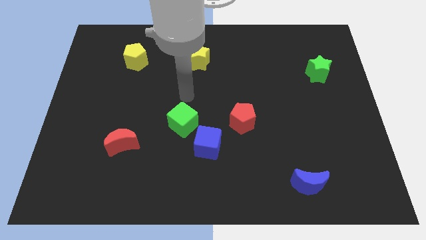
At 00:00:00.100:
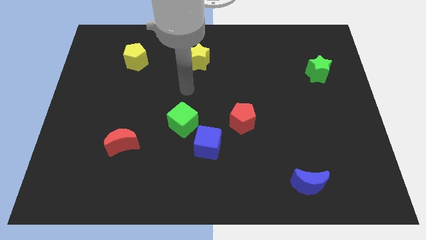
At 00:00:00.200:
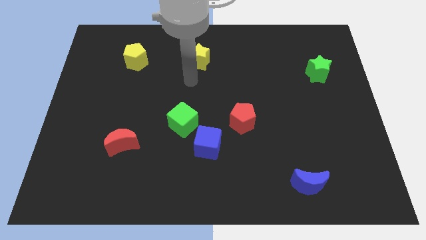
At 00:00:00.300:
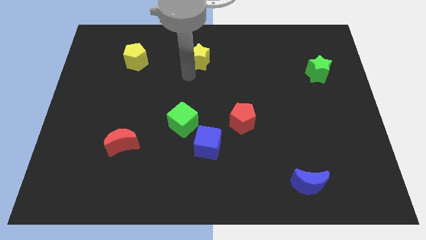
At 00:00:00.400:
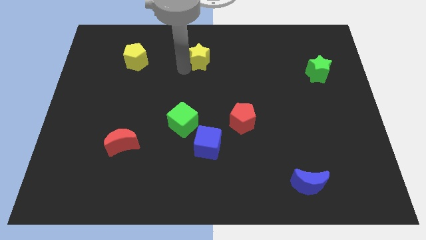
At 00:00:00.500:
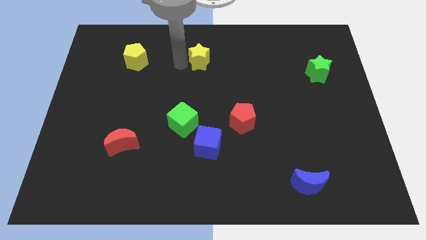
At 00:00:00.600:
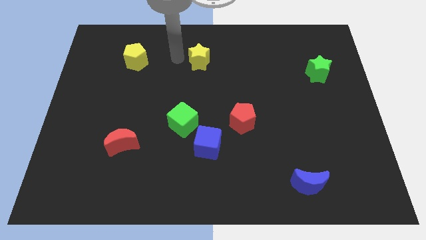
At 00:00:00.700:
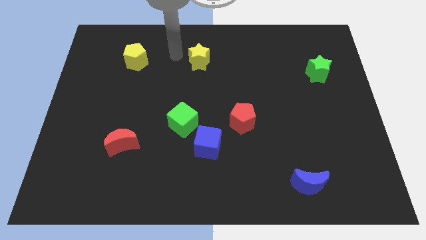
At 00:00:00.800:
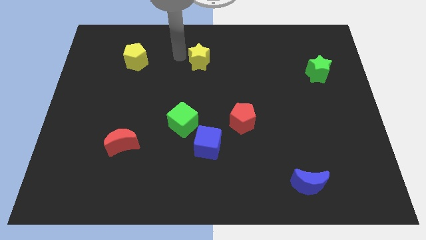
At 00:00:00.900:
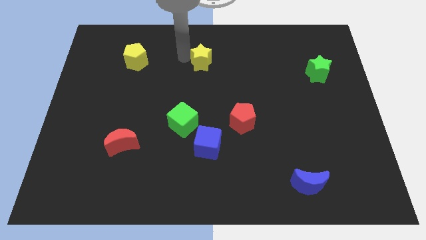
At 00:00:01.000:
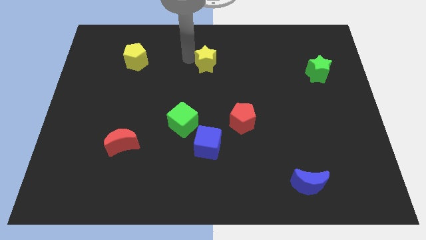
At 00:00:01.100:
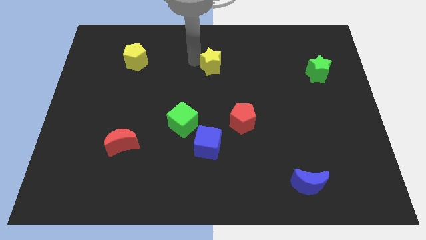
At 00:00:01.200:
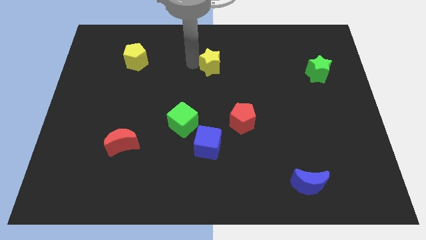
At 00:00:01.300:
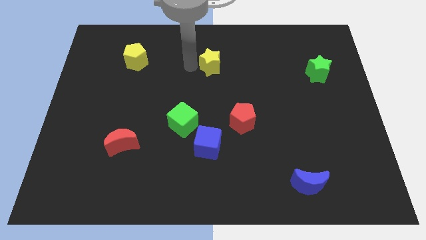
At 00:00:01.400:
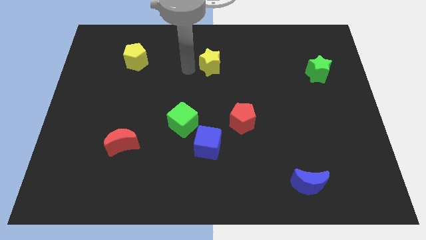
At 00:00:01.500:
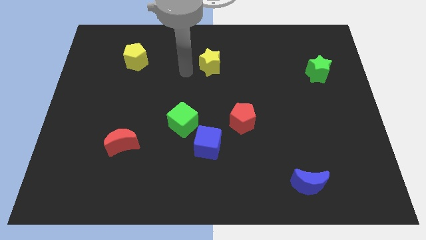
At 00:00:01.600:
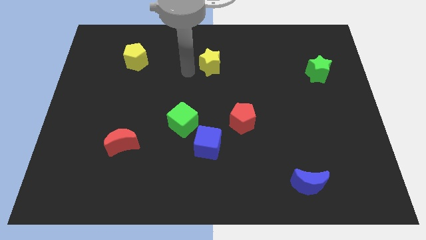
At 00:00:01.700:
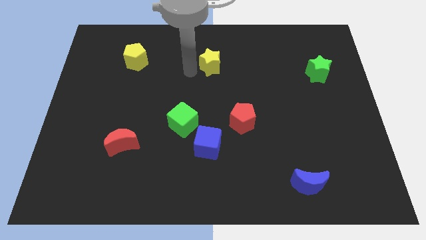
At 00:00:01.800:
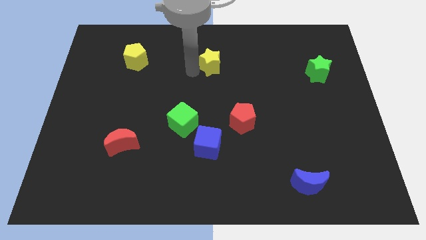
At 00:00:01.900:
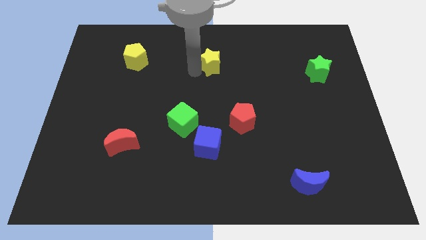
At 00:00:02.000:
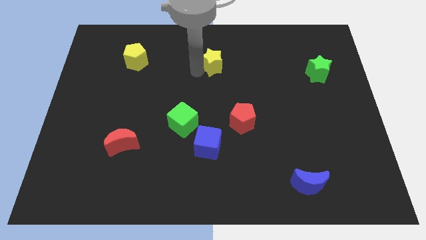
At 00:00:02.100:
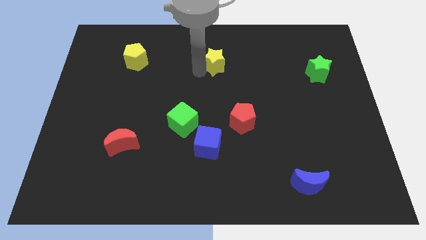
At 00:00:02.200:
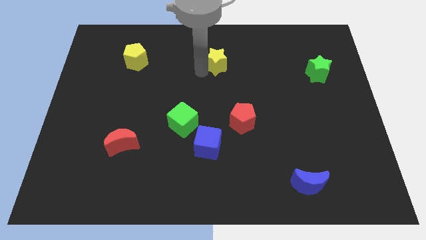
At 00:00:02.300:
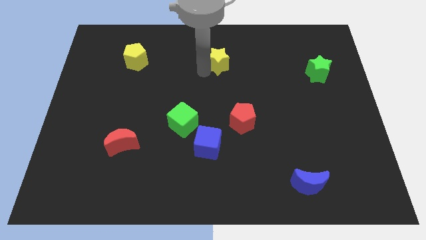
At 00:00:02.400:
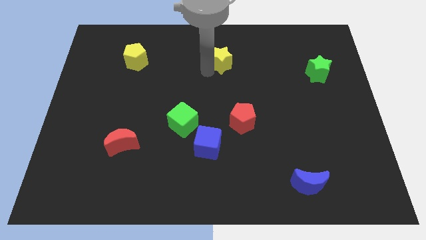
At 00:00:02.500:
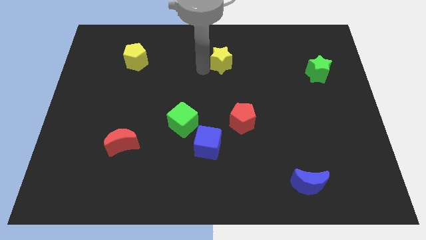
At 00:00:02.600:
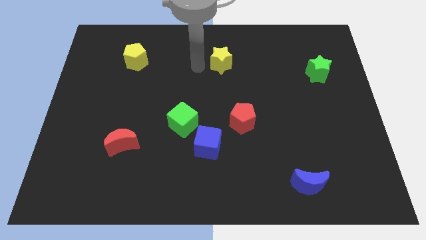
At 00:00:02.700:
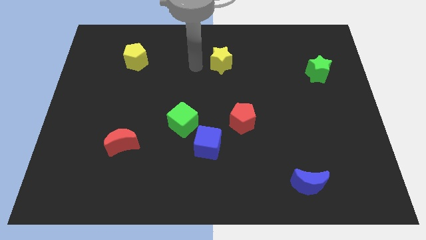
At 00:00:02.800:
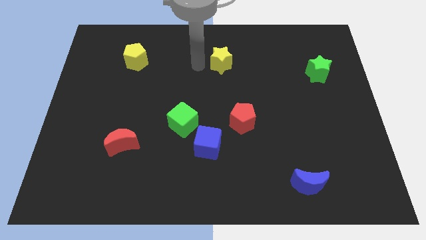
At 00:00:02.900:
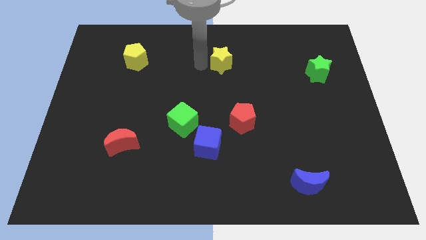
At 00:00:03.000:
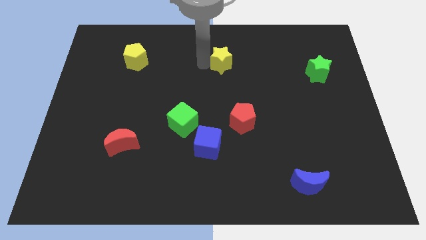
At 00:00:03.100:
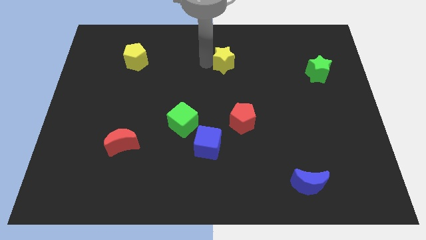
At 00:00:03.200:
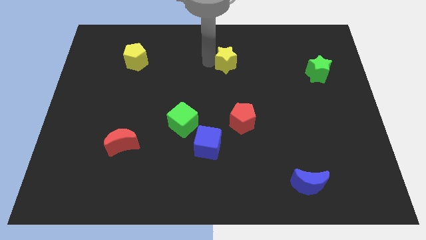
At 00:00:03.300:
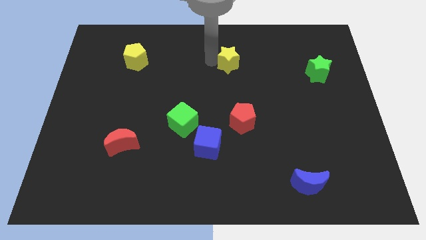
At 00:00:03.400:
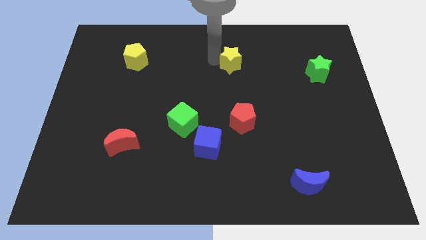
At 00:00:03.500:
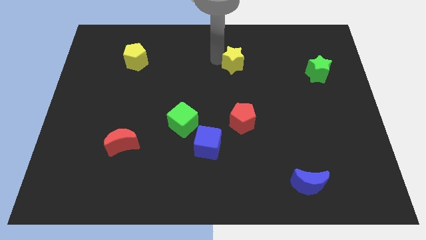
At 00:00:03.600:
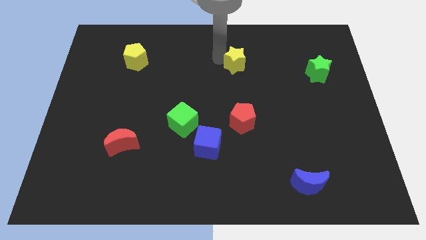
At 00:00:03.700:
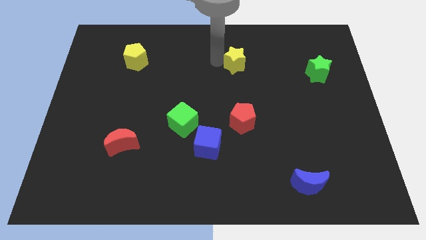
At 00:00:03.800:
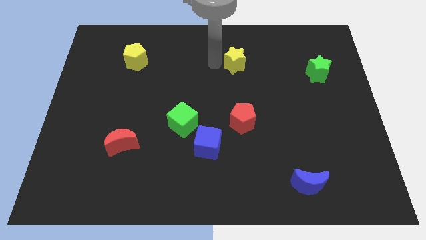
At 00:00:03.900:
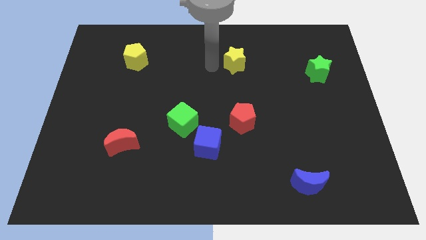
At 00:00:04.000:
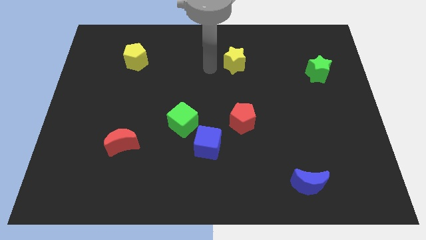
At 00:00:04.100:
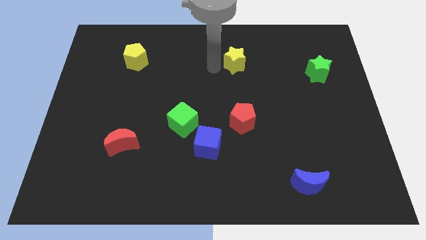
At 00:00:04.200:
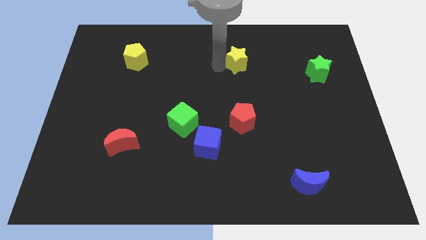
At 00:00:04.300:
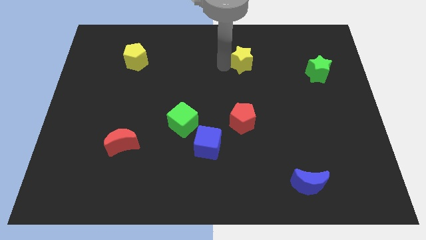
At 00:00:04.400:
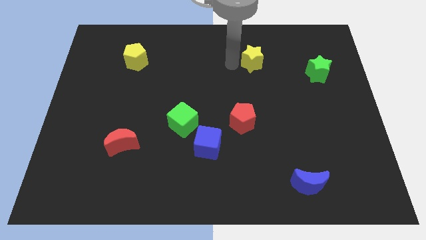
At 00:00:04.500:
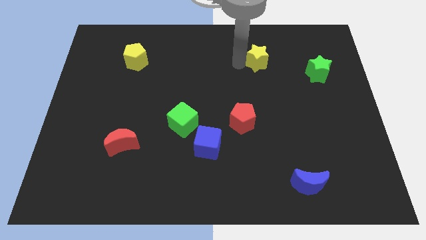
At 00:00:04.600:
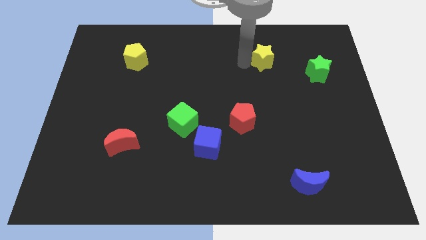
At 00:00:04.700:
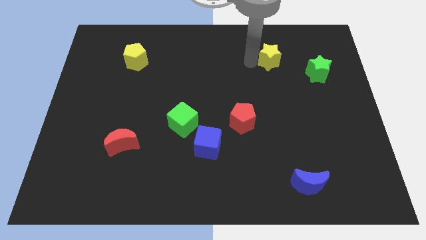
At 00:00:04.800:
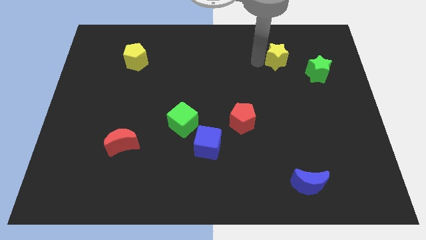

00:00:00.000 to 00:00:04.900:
move the yellow star to the right

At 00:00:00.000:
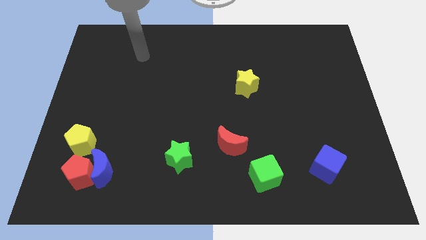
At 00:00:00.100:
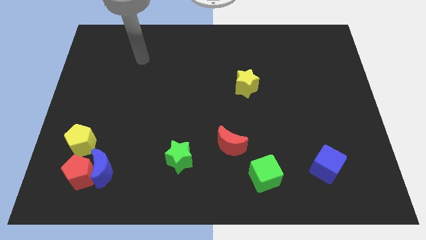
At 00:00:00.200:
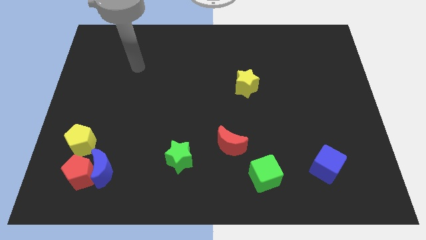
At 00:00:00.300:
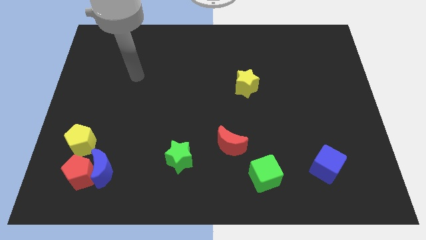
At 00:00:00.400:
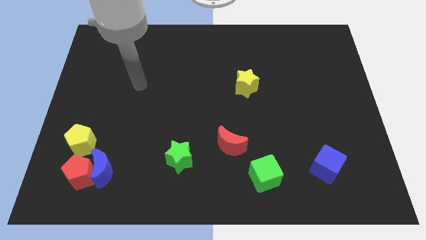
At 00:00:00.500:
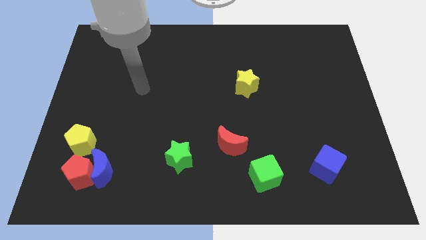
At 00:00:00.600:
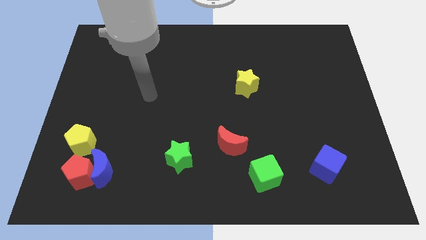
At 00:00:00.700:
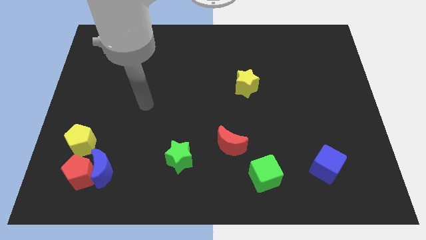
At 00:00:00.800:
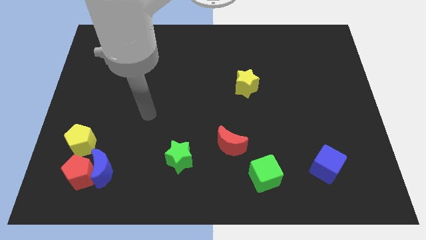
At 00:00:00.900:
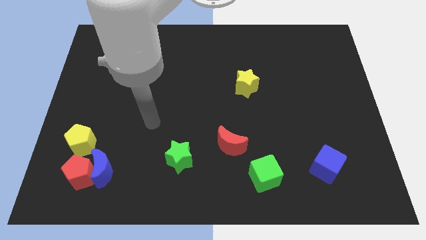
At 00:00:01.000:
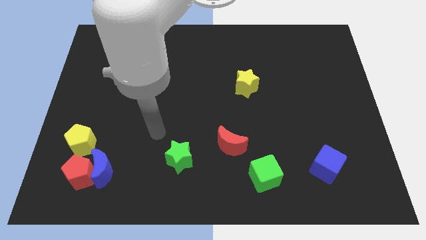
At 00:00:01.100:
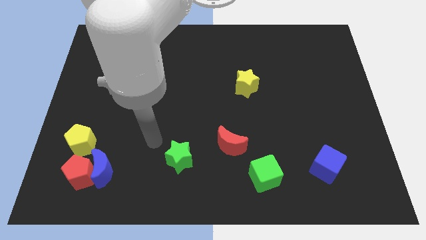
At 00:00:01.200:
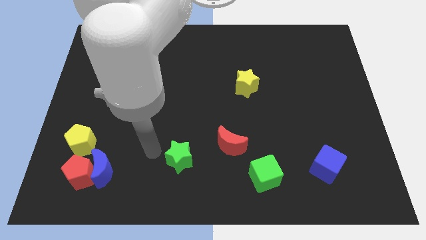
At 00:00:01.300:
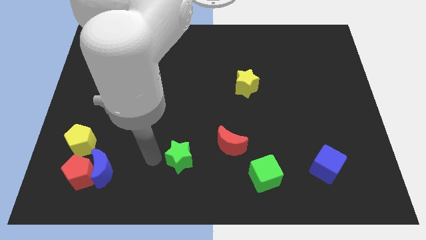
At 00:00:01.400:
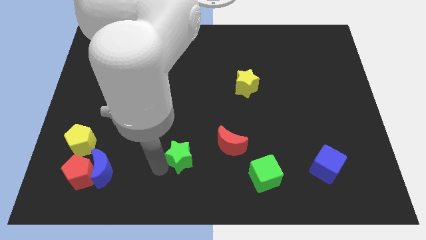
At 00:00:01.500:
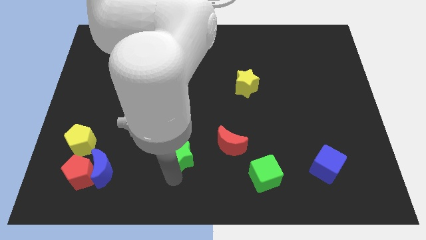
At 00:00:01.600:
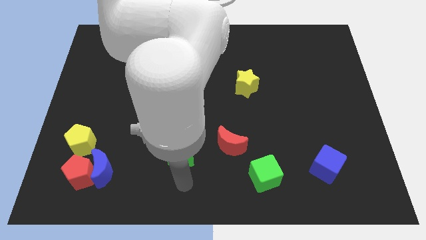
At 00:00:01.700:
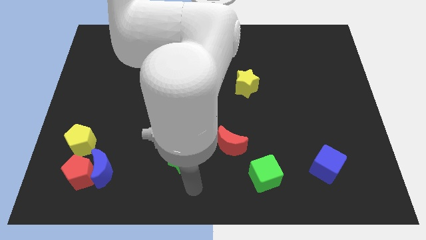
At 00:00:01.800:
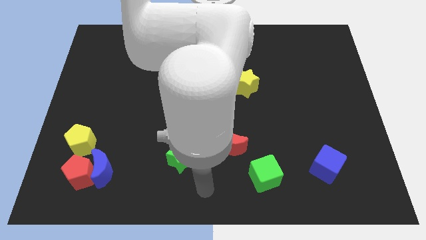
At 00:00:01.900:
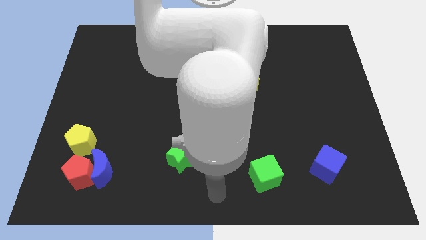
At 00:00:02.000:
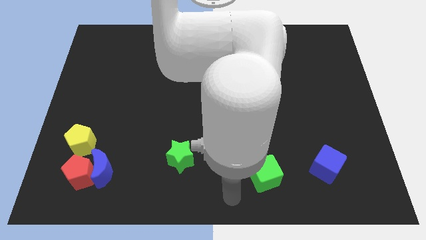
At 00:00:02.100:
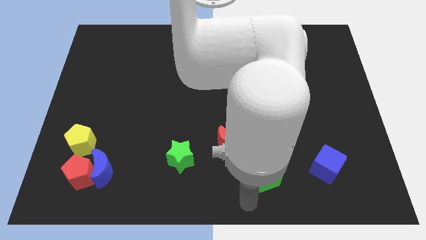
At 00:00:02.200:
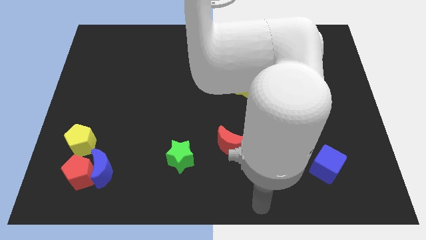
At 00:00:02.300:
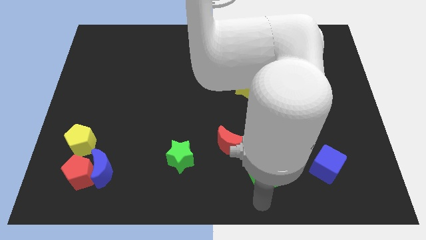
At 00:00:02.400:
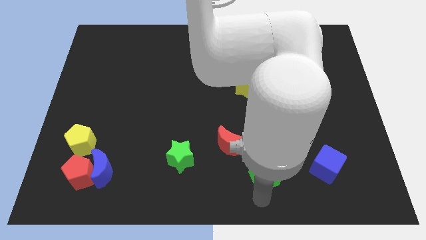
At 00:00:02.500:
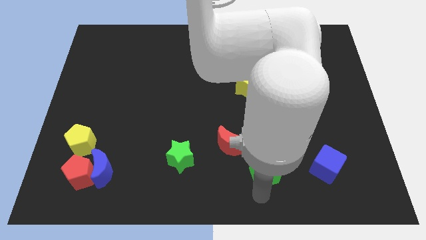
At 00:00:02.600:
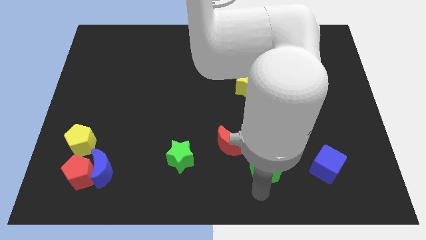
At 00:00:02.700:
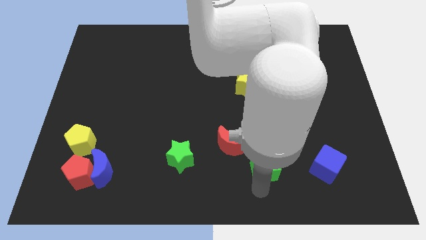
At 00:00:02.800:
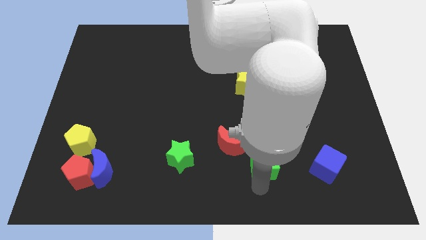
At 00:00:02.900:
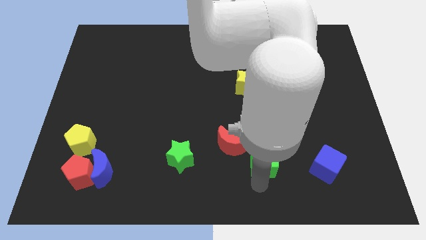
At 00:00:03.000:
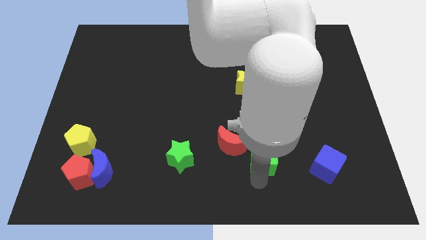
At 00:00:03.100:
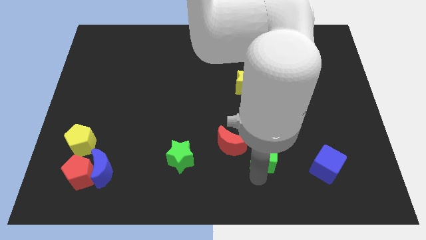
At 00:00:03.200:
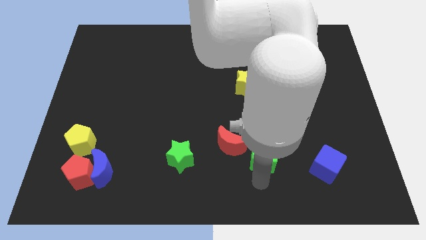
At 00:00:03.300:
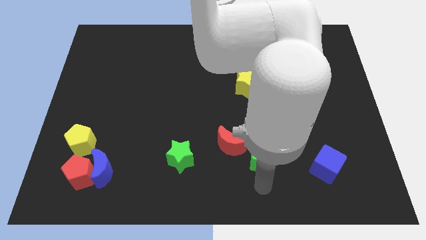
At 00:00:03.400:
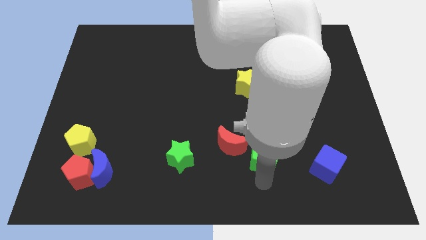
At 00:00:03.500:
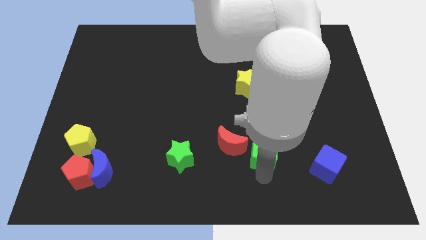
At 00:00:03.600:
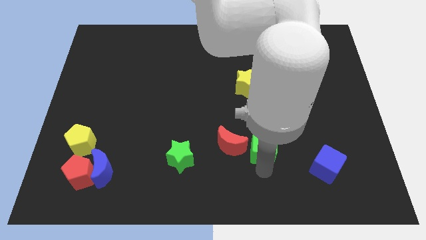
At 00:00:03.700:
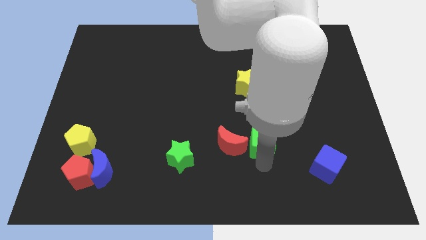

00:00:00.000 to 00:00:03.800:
slide the green cube a bit up
